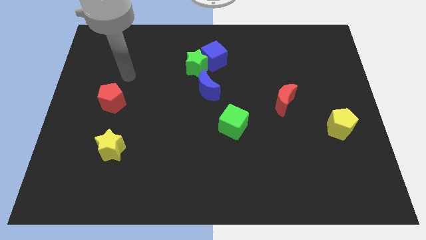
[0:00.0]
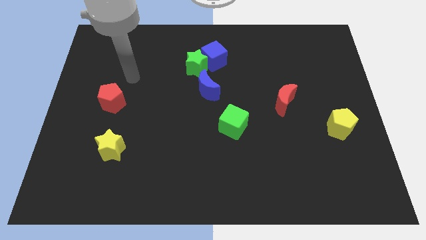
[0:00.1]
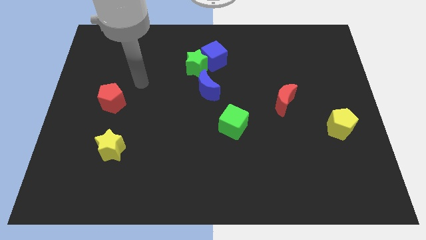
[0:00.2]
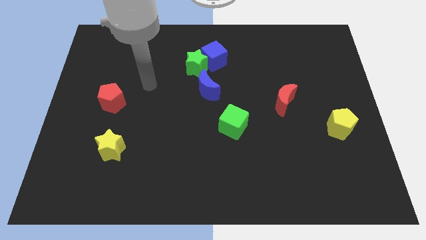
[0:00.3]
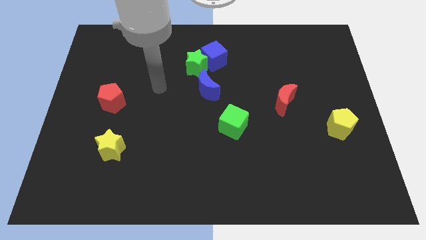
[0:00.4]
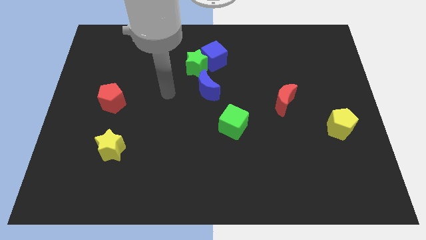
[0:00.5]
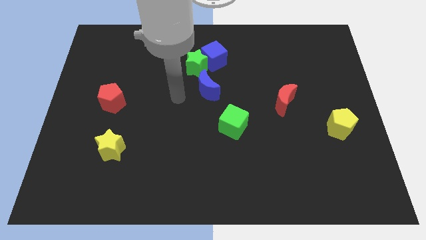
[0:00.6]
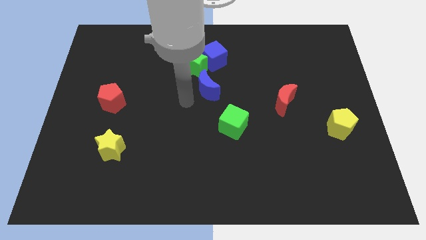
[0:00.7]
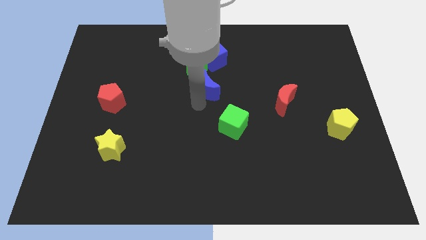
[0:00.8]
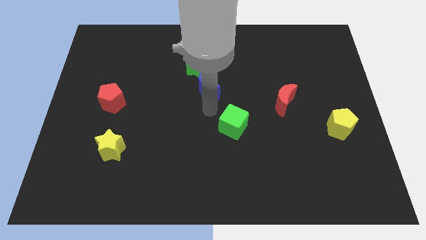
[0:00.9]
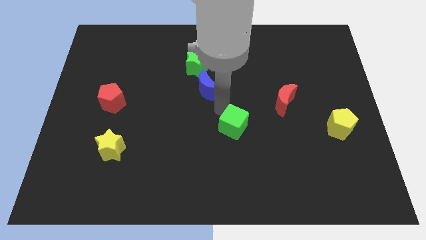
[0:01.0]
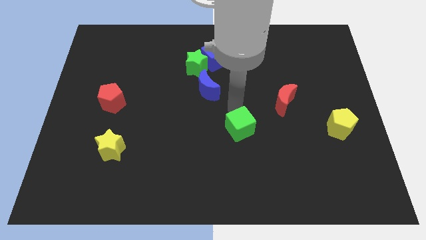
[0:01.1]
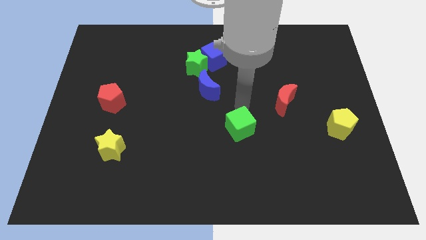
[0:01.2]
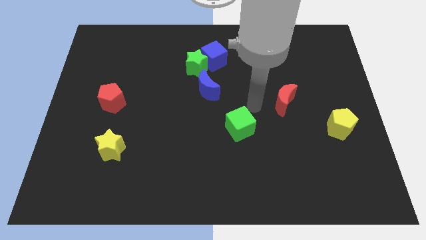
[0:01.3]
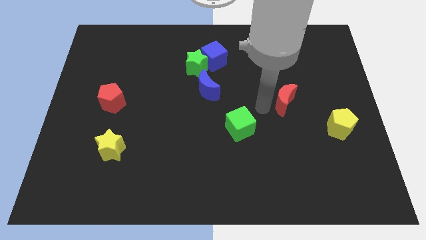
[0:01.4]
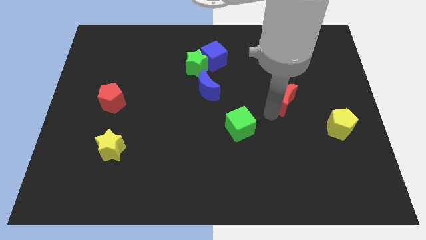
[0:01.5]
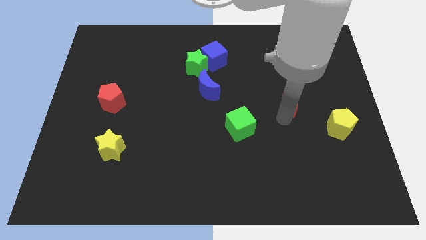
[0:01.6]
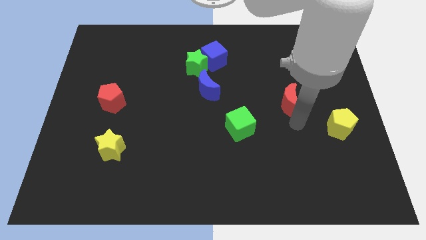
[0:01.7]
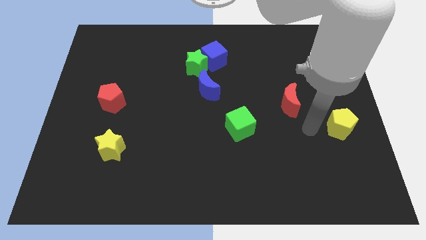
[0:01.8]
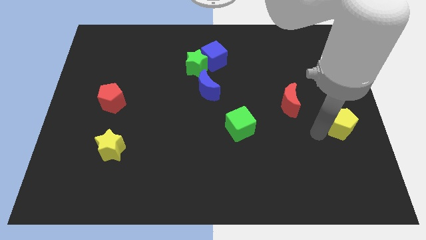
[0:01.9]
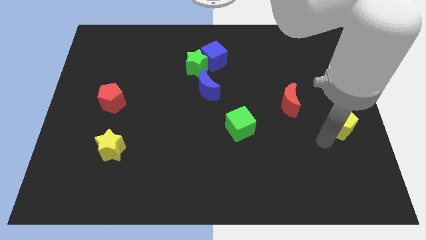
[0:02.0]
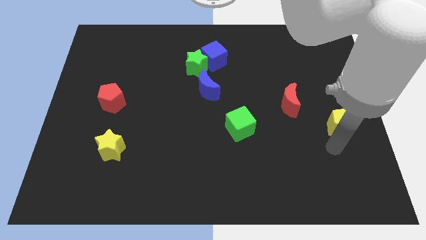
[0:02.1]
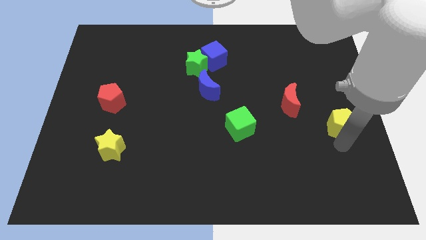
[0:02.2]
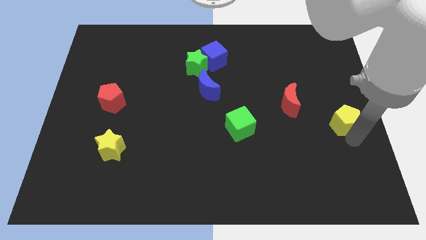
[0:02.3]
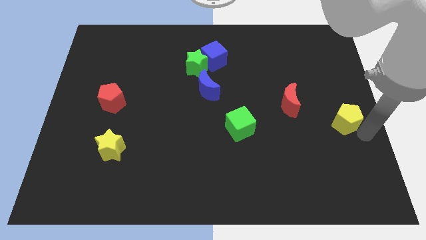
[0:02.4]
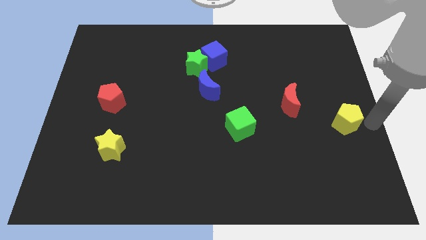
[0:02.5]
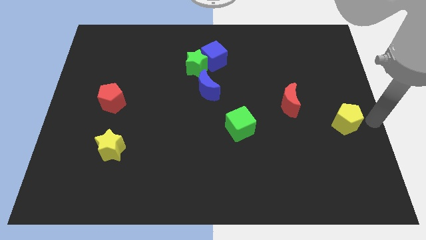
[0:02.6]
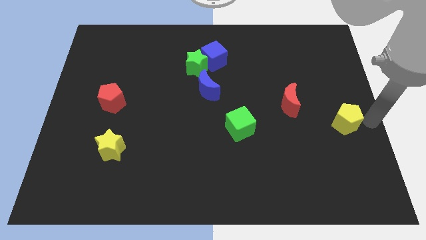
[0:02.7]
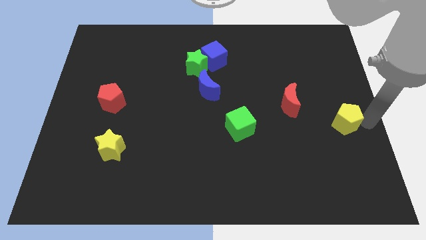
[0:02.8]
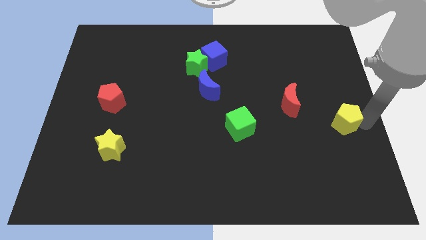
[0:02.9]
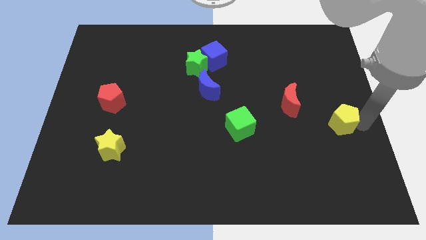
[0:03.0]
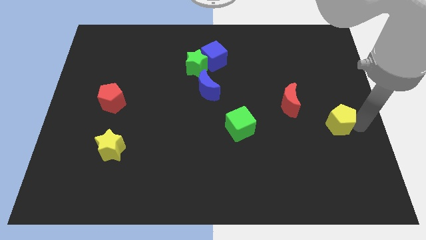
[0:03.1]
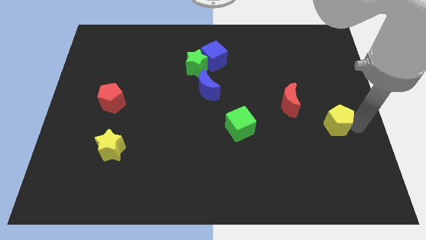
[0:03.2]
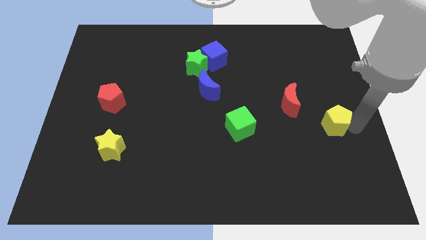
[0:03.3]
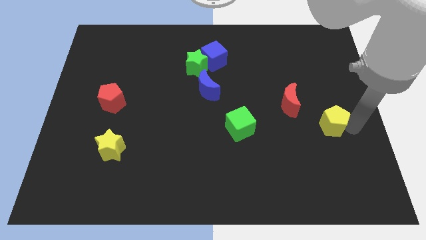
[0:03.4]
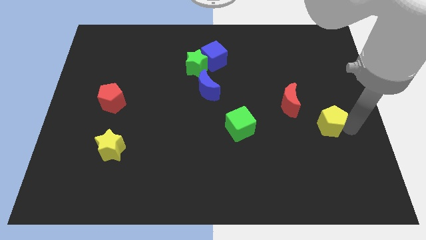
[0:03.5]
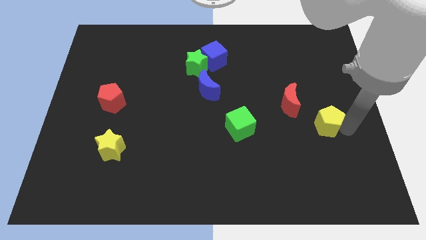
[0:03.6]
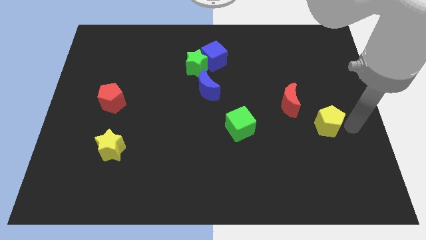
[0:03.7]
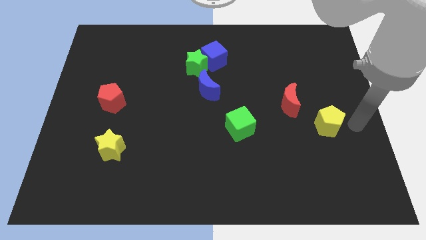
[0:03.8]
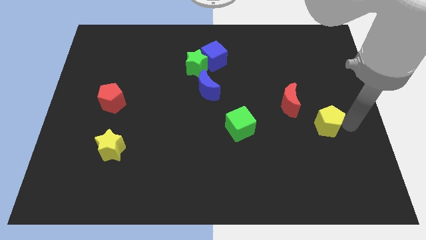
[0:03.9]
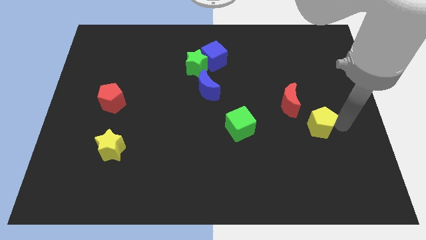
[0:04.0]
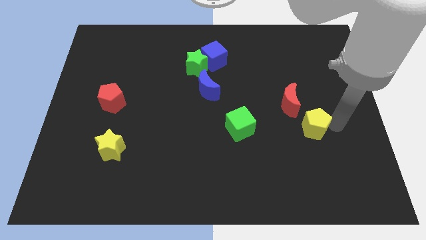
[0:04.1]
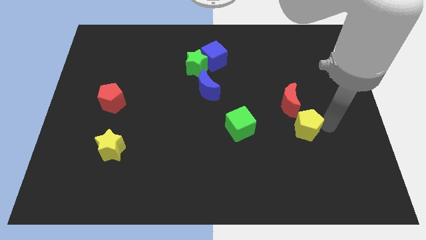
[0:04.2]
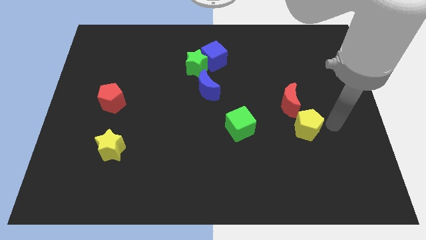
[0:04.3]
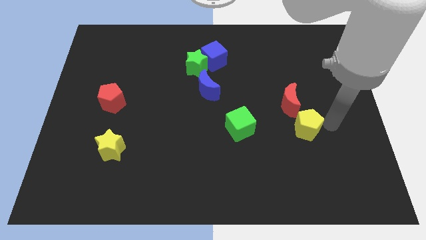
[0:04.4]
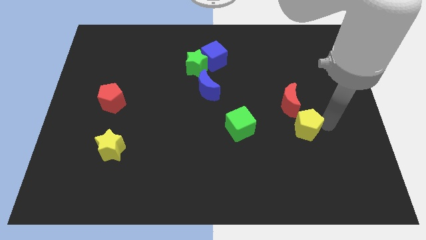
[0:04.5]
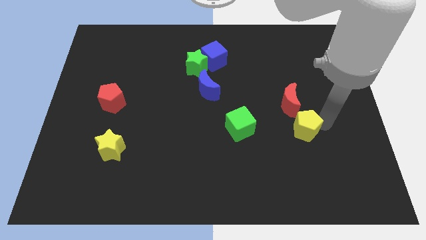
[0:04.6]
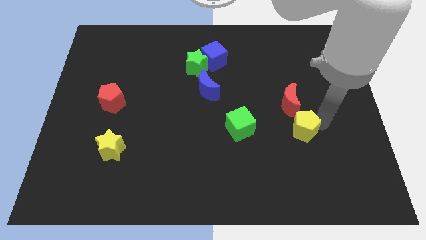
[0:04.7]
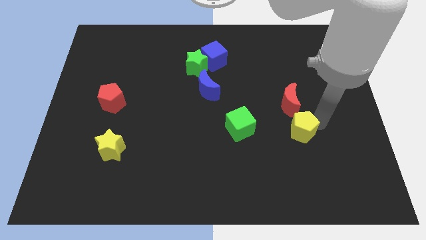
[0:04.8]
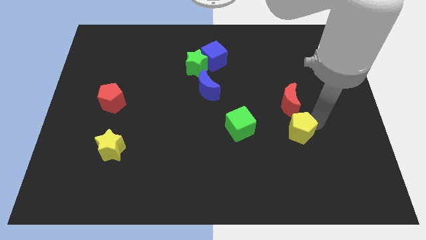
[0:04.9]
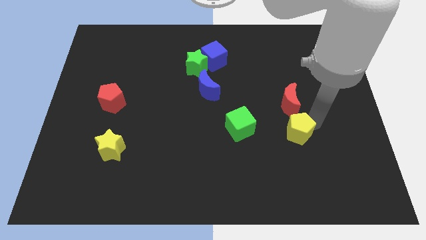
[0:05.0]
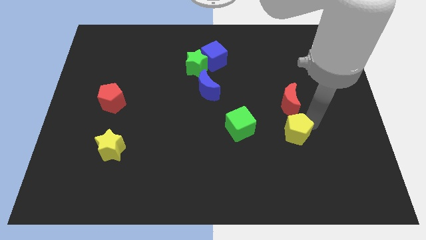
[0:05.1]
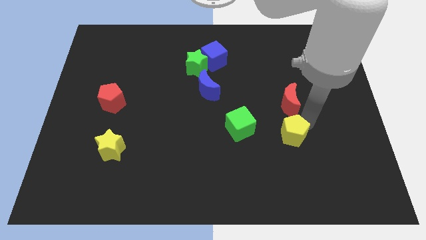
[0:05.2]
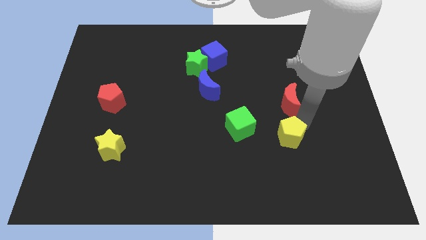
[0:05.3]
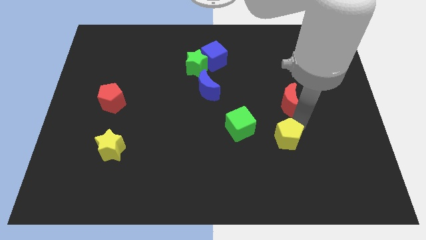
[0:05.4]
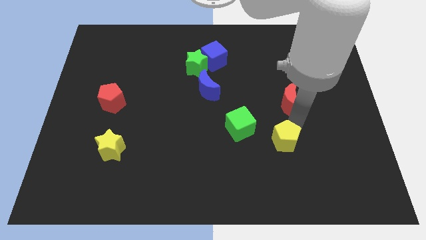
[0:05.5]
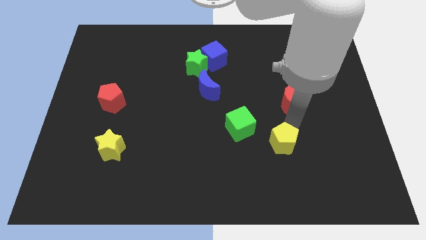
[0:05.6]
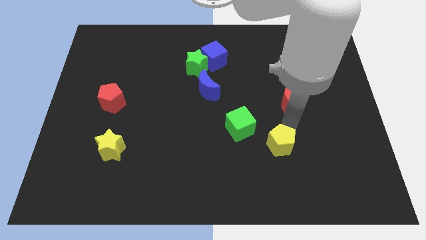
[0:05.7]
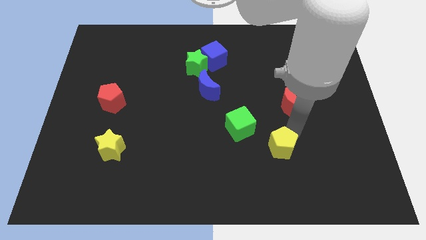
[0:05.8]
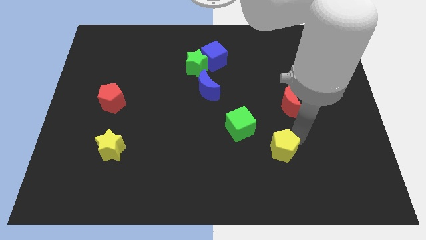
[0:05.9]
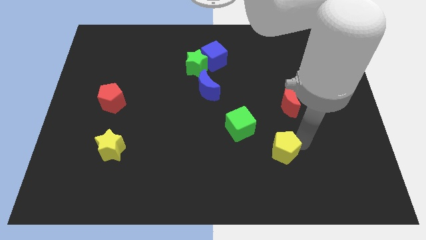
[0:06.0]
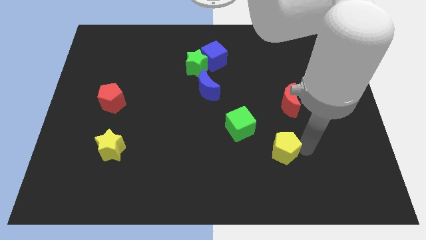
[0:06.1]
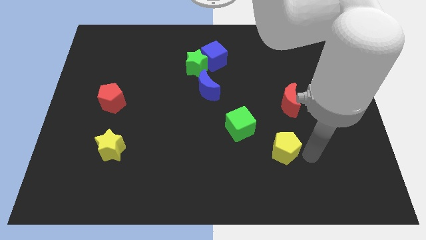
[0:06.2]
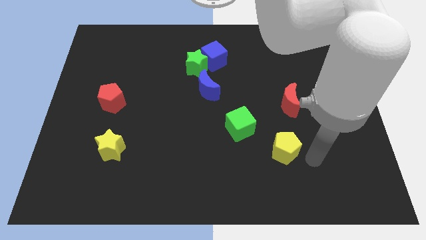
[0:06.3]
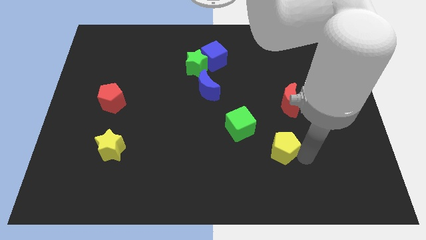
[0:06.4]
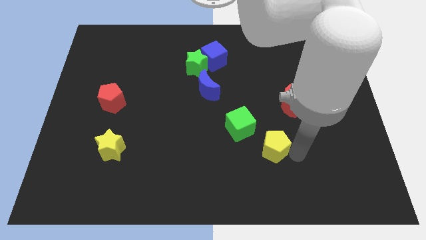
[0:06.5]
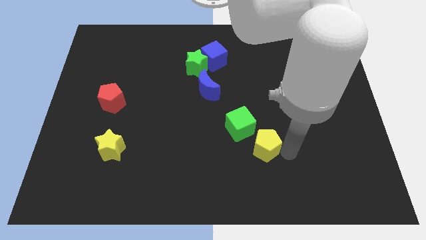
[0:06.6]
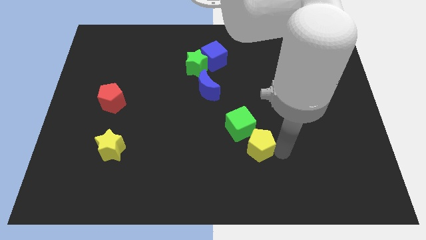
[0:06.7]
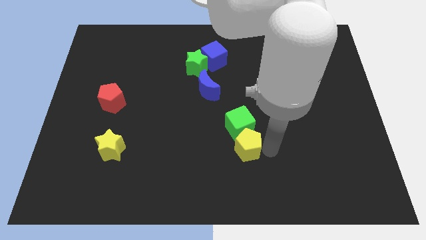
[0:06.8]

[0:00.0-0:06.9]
slide the yellow pentagon to the left

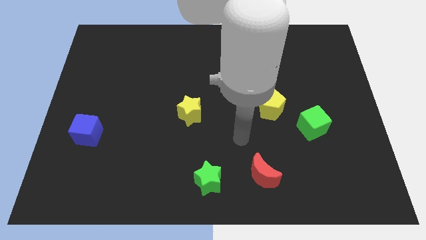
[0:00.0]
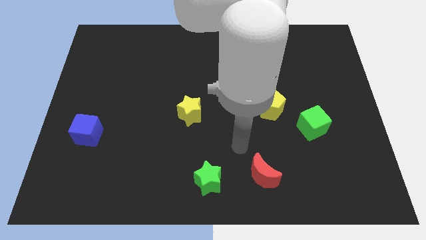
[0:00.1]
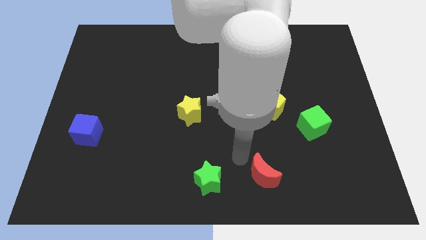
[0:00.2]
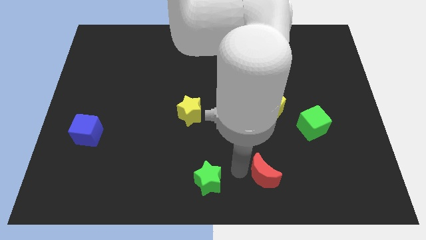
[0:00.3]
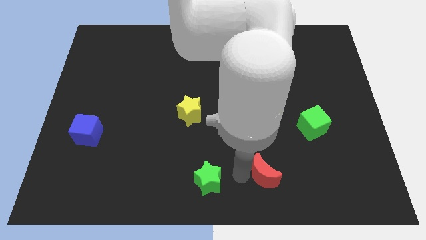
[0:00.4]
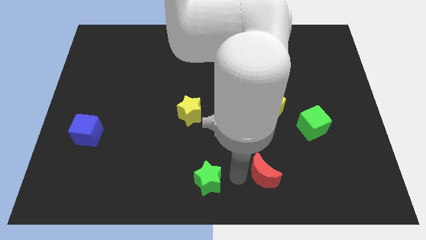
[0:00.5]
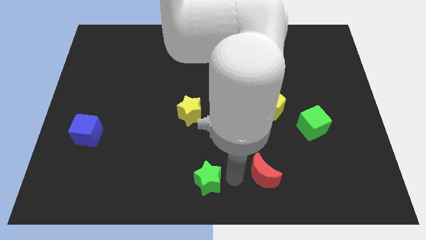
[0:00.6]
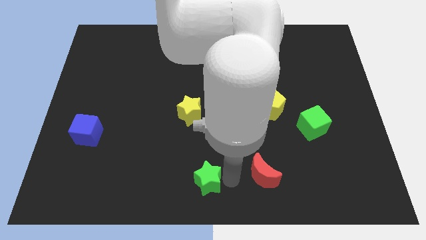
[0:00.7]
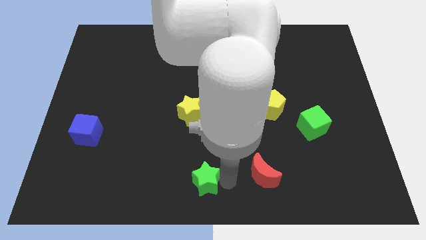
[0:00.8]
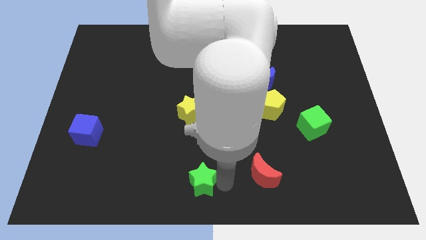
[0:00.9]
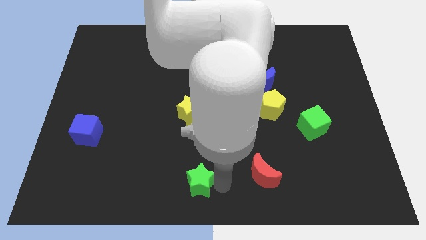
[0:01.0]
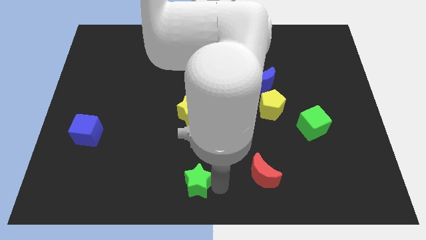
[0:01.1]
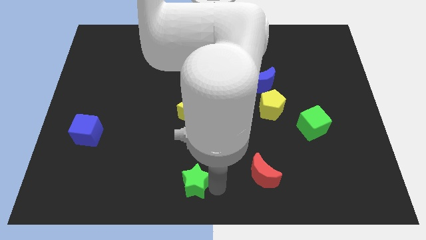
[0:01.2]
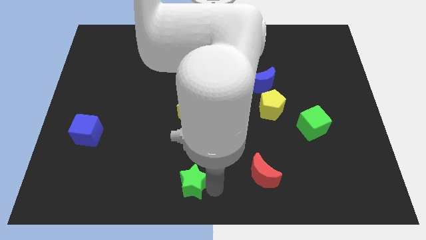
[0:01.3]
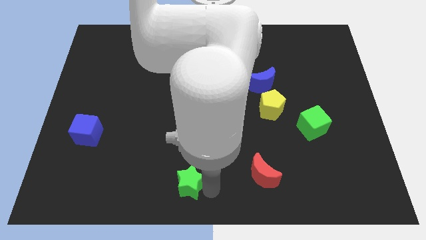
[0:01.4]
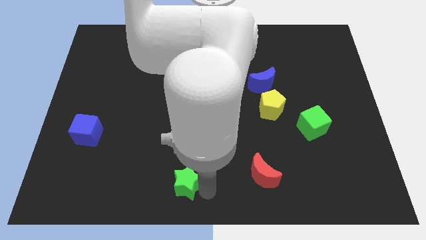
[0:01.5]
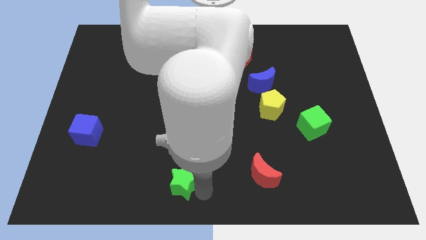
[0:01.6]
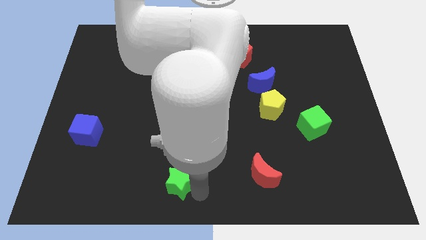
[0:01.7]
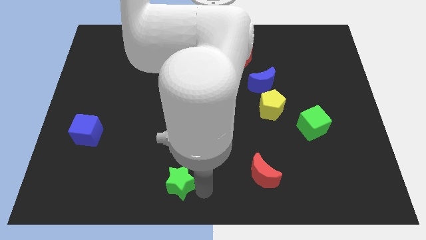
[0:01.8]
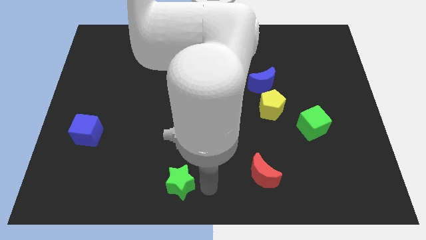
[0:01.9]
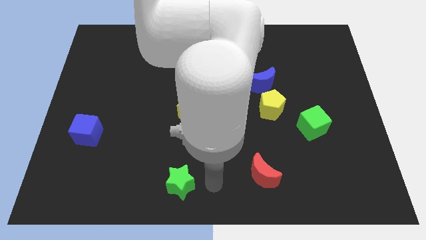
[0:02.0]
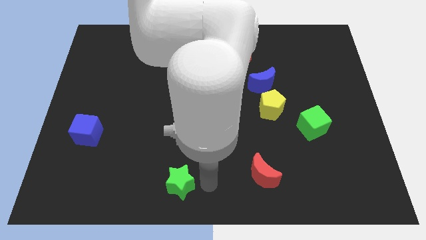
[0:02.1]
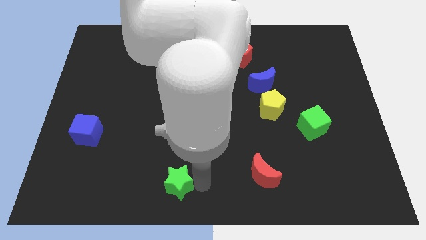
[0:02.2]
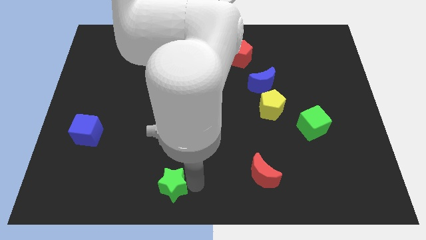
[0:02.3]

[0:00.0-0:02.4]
slightly move the green star to the left
